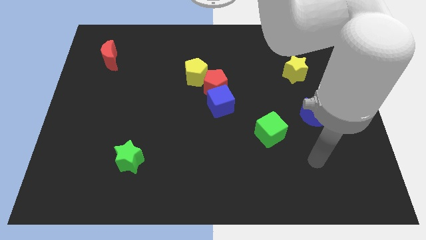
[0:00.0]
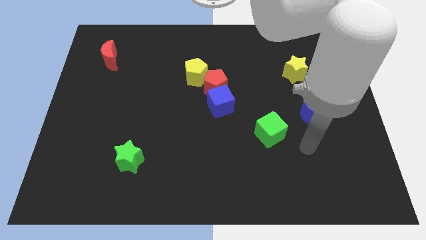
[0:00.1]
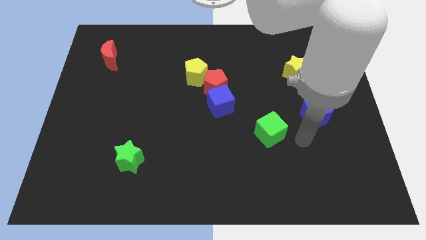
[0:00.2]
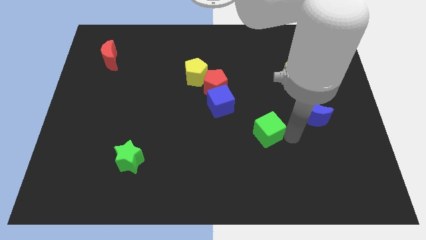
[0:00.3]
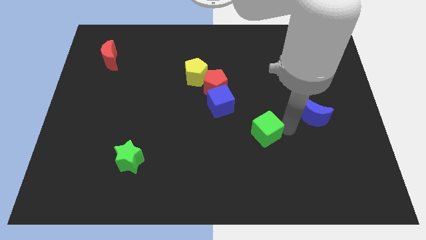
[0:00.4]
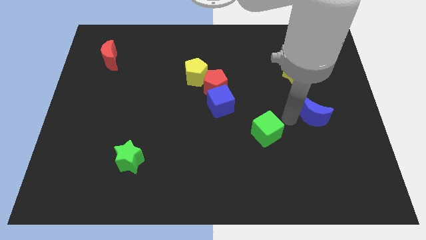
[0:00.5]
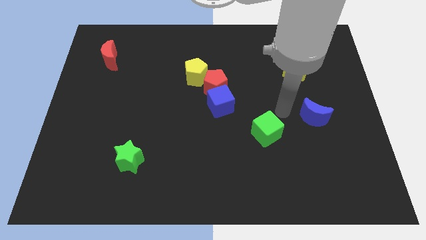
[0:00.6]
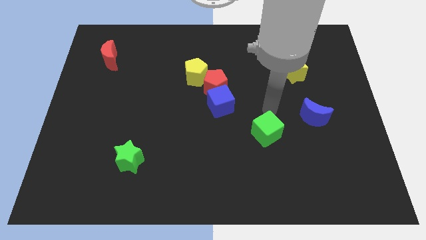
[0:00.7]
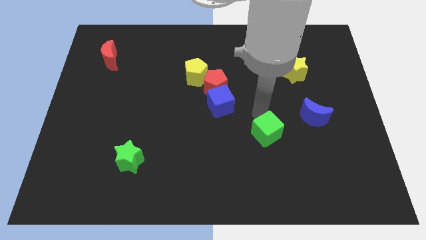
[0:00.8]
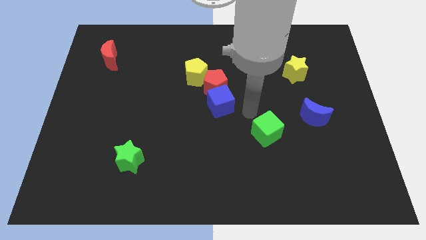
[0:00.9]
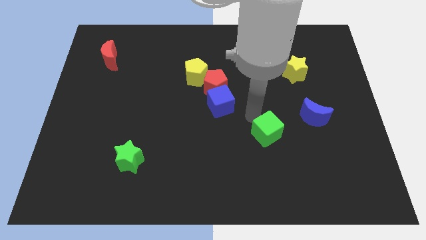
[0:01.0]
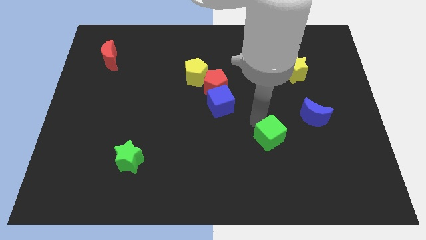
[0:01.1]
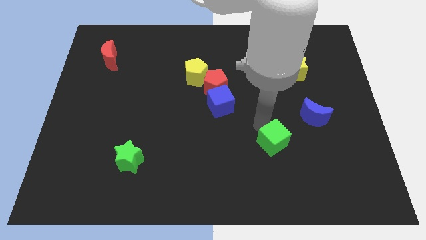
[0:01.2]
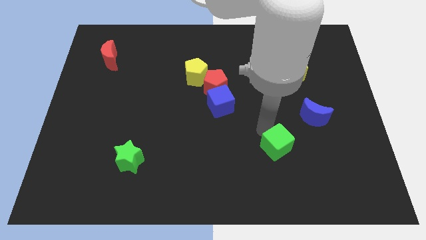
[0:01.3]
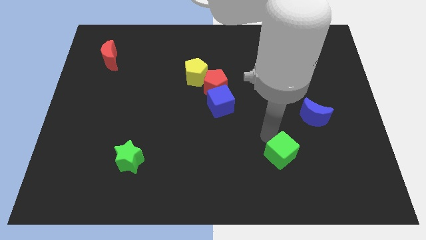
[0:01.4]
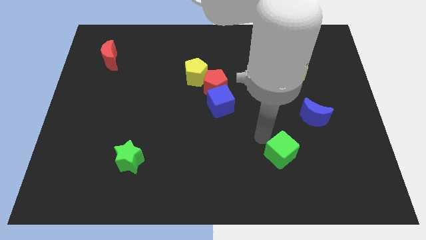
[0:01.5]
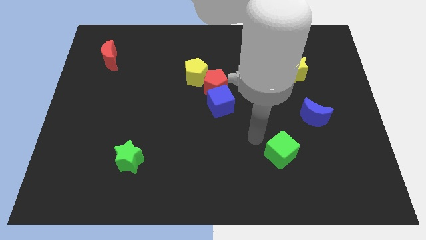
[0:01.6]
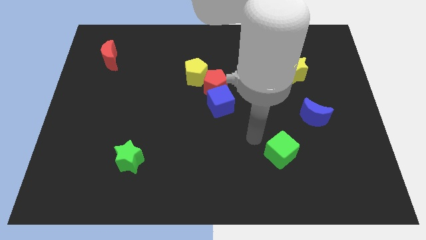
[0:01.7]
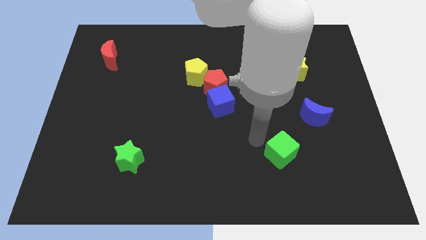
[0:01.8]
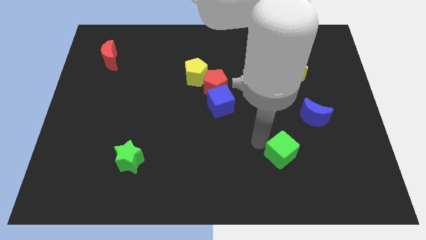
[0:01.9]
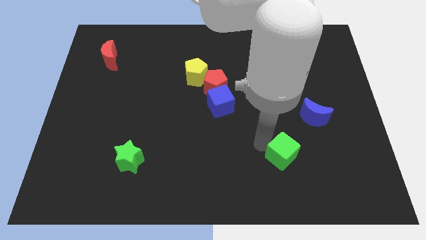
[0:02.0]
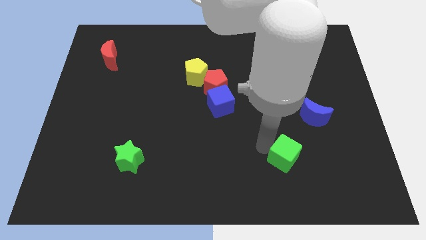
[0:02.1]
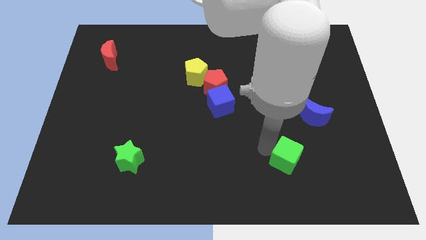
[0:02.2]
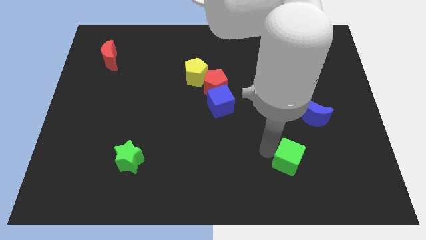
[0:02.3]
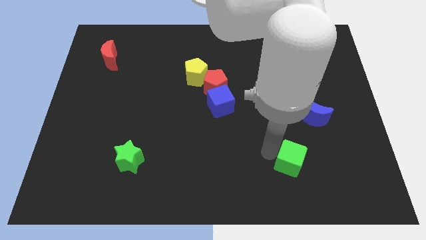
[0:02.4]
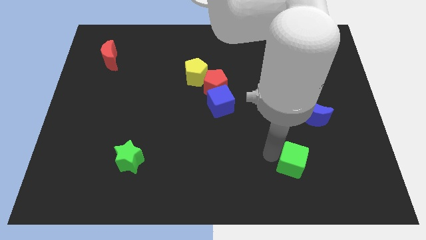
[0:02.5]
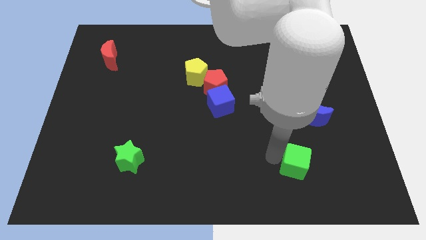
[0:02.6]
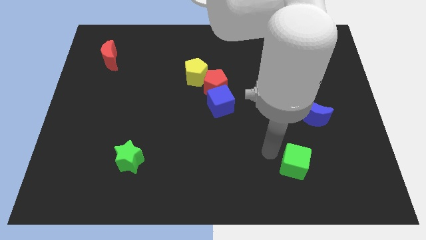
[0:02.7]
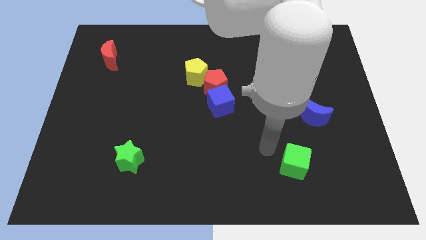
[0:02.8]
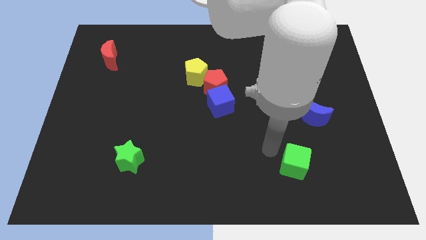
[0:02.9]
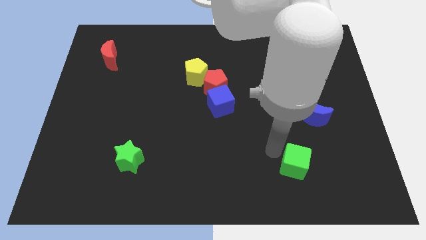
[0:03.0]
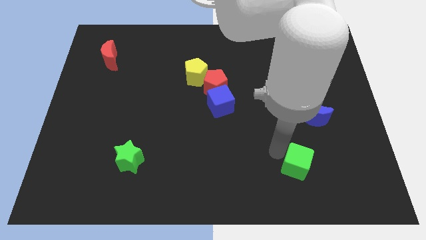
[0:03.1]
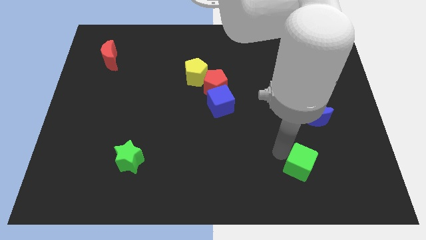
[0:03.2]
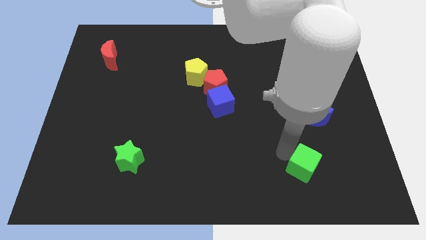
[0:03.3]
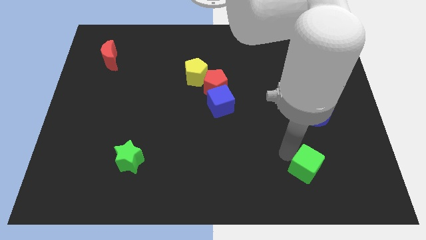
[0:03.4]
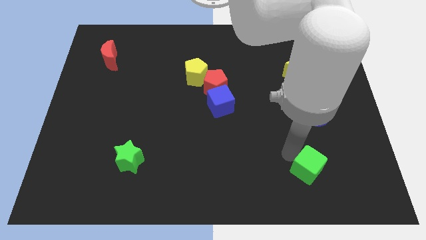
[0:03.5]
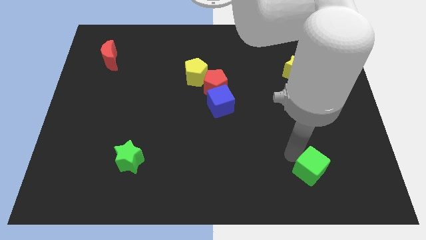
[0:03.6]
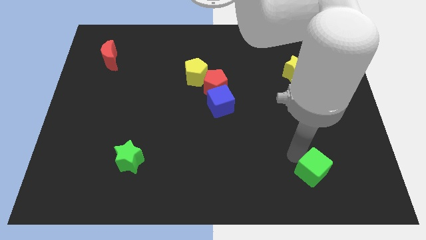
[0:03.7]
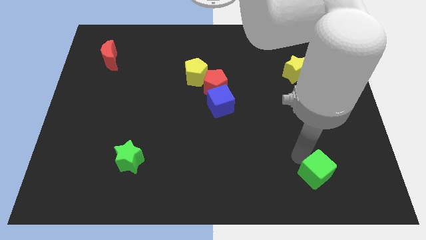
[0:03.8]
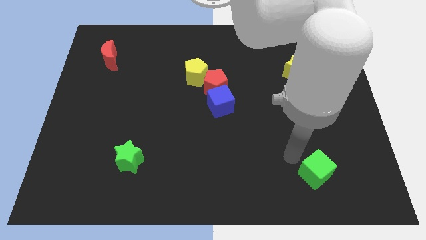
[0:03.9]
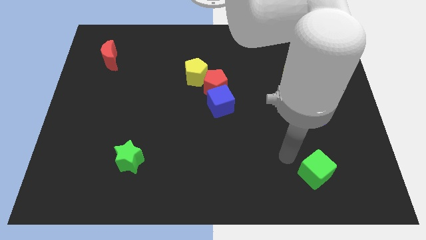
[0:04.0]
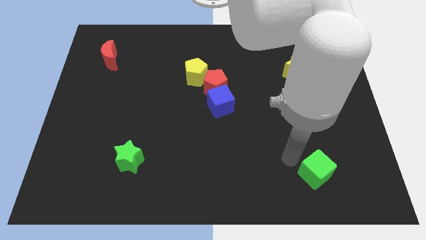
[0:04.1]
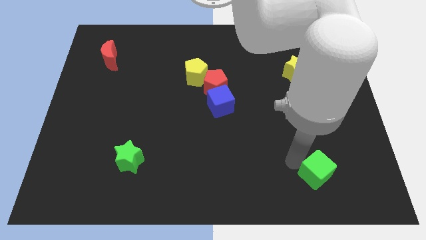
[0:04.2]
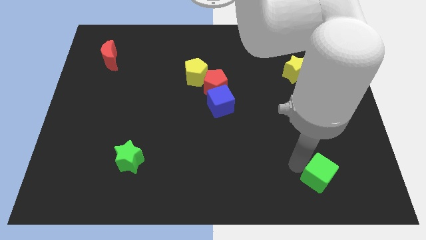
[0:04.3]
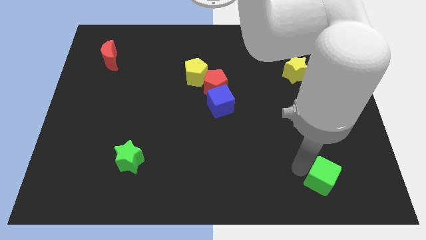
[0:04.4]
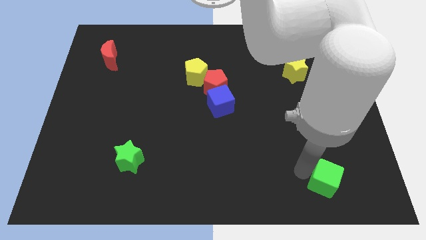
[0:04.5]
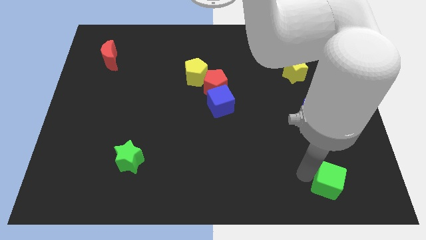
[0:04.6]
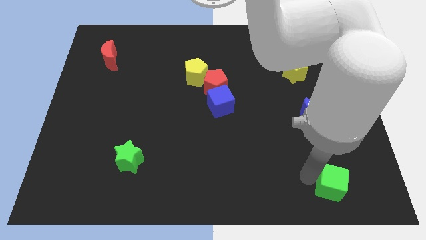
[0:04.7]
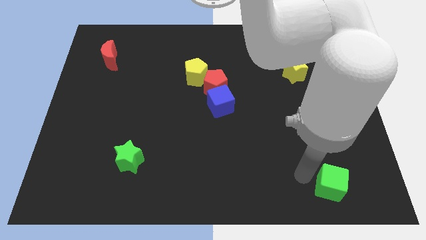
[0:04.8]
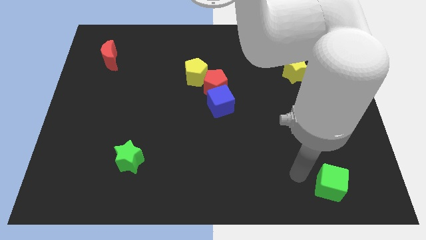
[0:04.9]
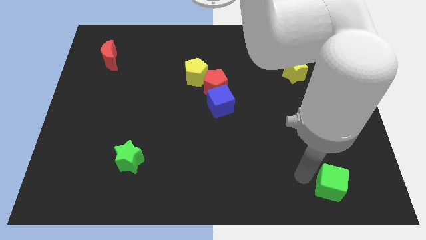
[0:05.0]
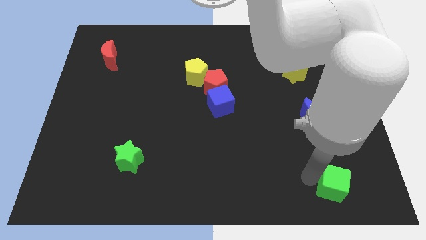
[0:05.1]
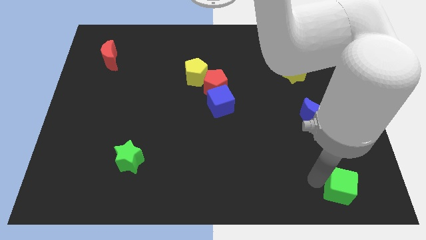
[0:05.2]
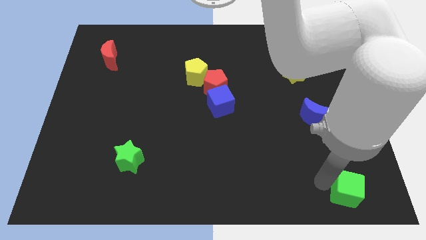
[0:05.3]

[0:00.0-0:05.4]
put the green cube to the bottom right corner

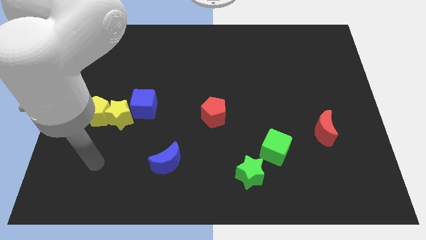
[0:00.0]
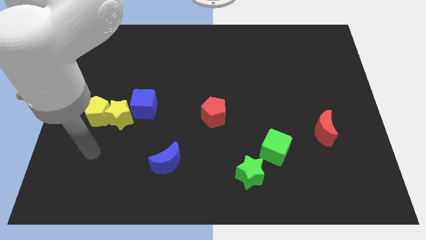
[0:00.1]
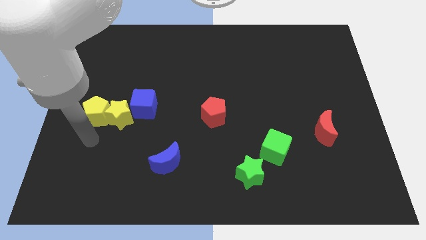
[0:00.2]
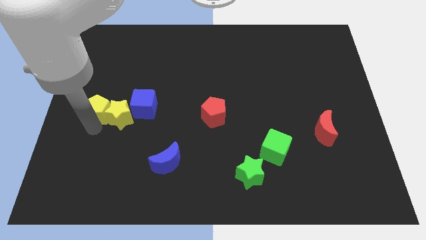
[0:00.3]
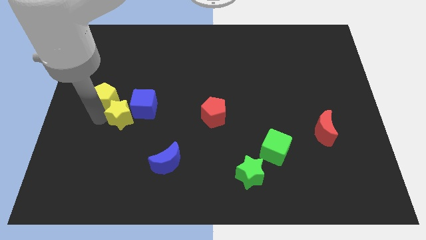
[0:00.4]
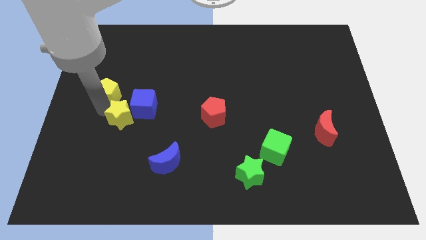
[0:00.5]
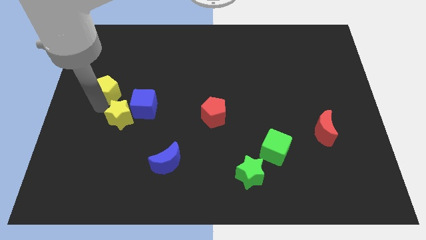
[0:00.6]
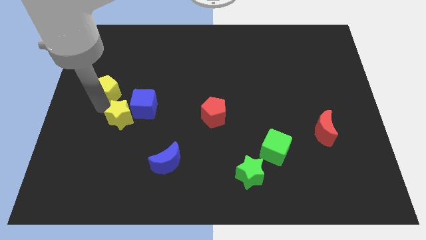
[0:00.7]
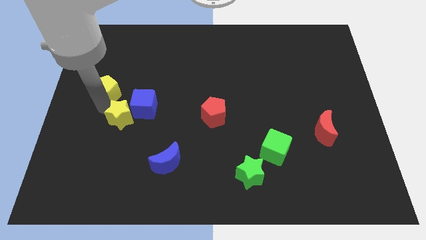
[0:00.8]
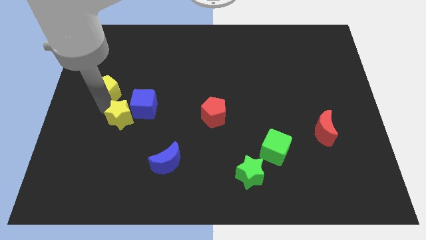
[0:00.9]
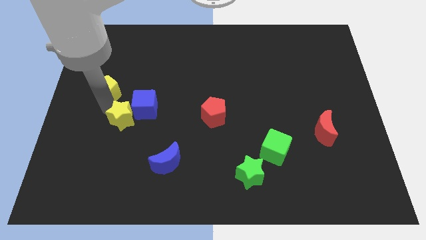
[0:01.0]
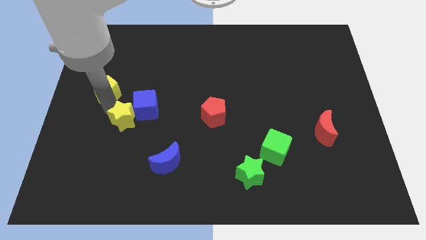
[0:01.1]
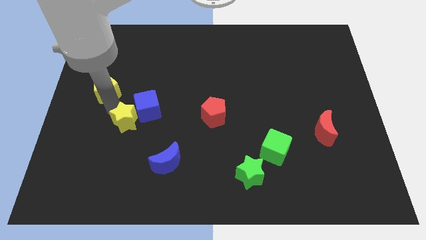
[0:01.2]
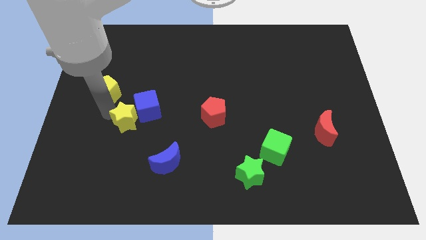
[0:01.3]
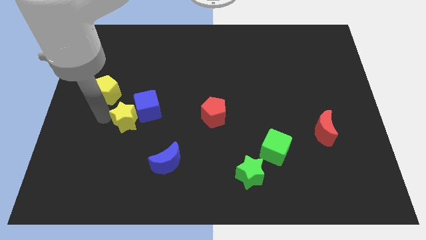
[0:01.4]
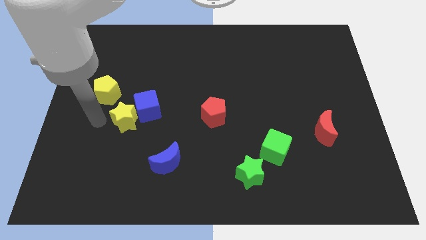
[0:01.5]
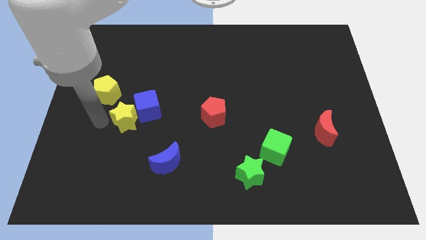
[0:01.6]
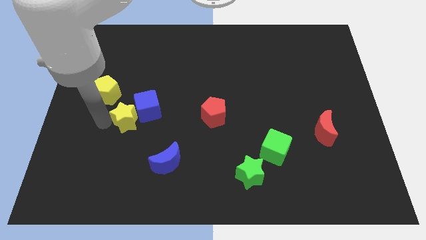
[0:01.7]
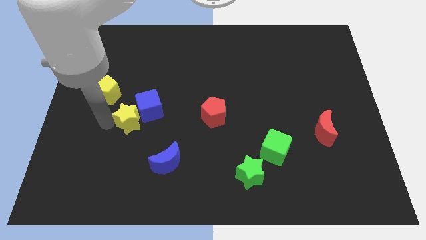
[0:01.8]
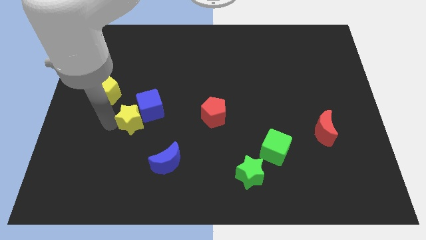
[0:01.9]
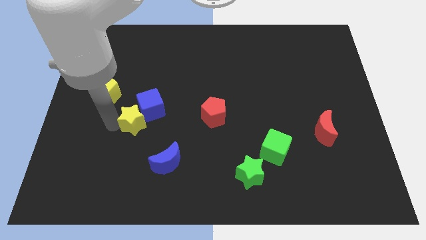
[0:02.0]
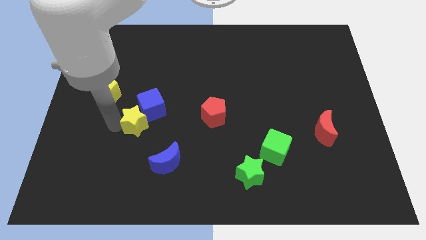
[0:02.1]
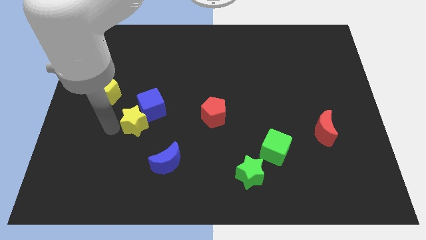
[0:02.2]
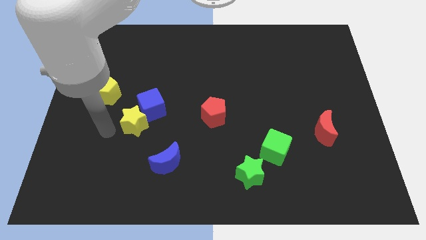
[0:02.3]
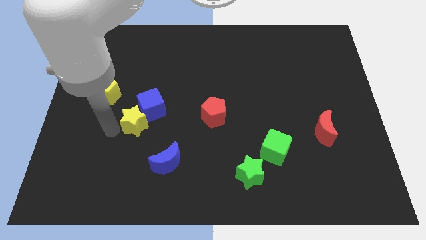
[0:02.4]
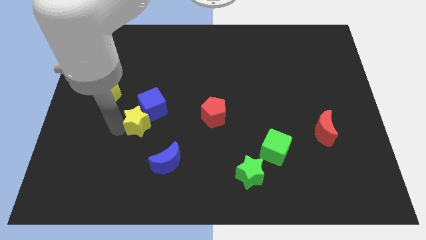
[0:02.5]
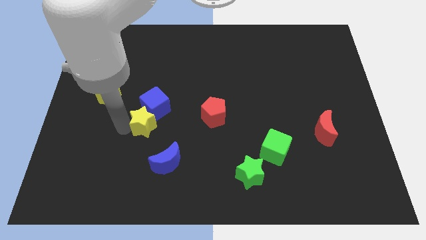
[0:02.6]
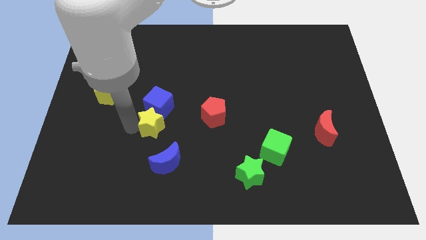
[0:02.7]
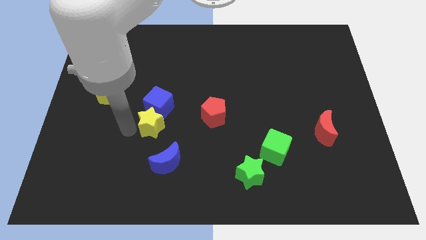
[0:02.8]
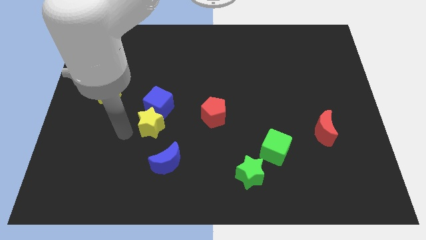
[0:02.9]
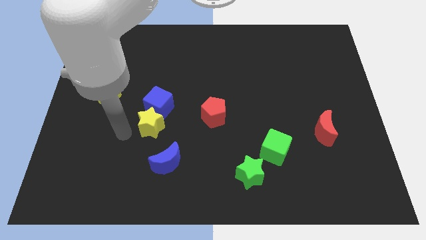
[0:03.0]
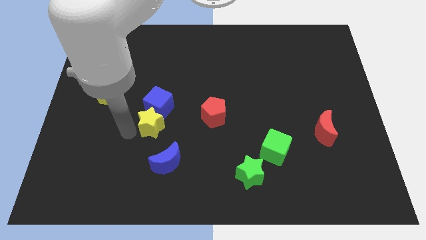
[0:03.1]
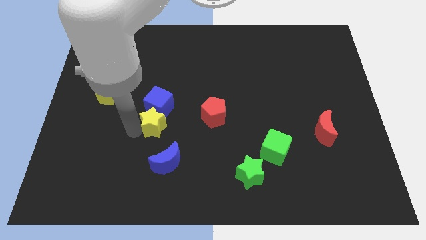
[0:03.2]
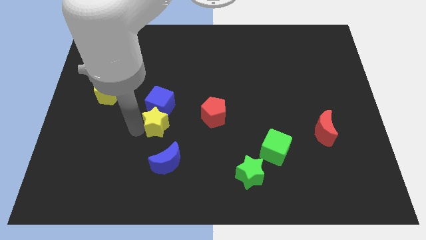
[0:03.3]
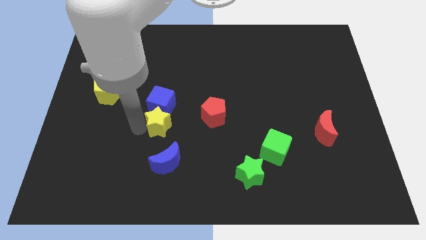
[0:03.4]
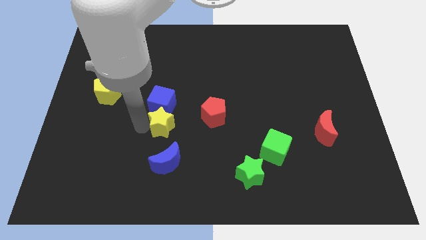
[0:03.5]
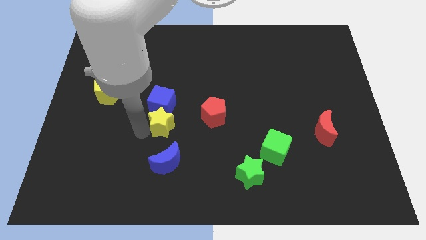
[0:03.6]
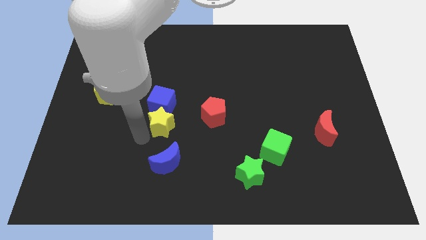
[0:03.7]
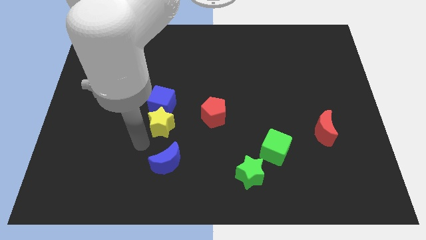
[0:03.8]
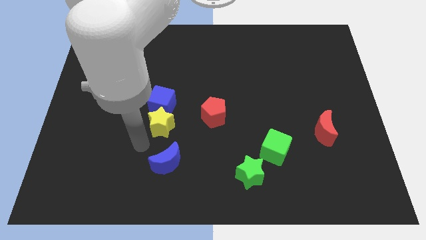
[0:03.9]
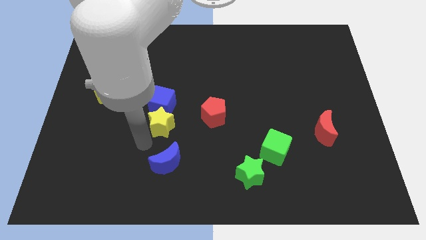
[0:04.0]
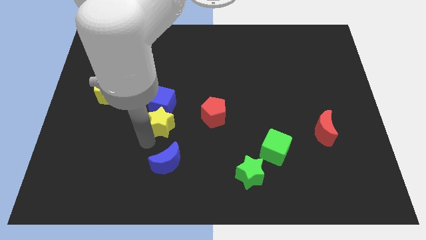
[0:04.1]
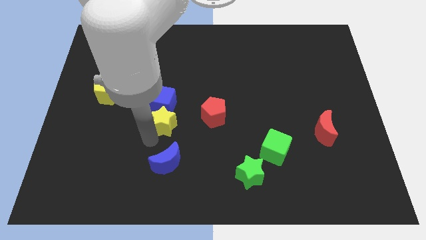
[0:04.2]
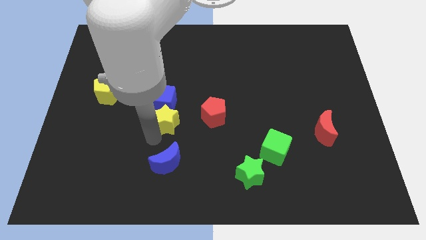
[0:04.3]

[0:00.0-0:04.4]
move the yellow star to the middle
